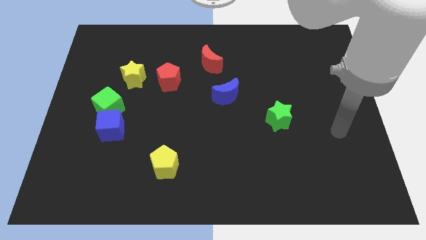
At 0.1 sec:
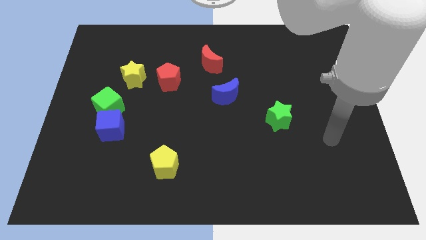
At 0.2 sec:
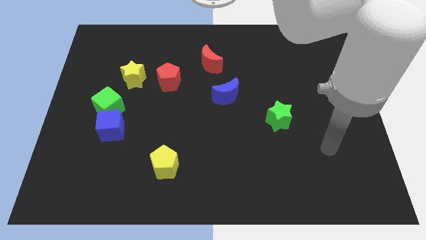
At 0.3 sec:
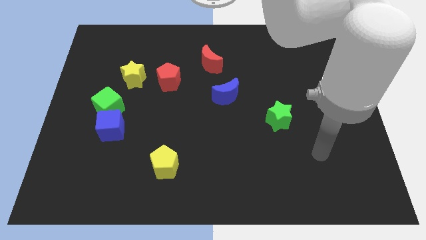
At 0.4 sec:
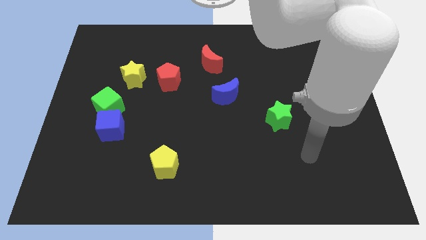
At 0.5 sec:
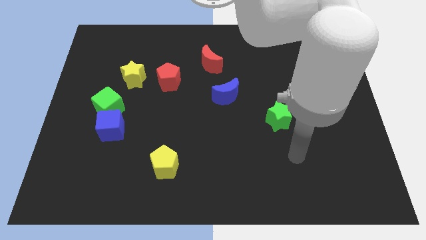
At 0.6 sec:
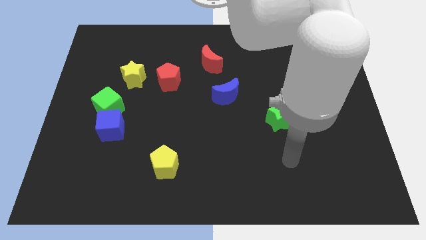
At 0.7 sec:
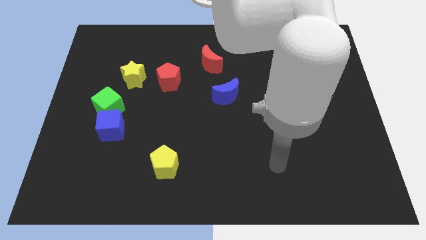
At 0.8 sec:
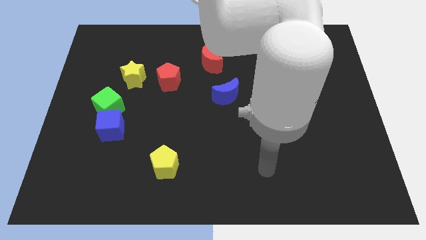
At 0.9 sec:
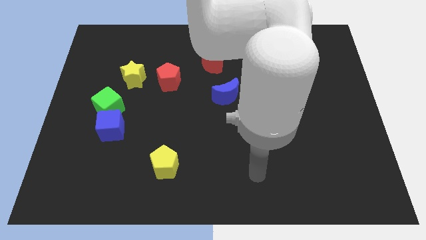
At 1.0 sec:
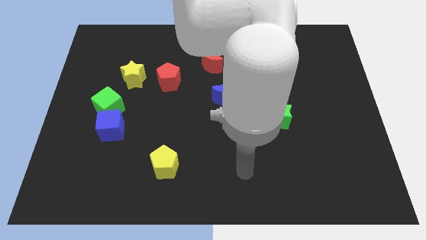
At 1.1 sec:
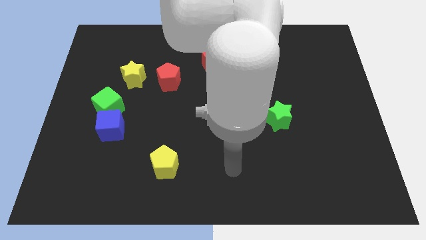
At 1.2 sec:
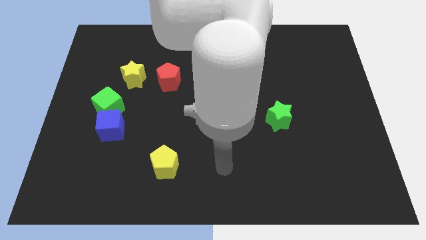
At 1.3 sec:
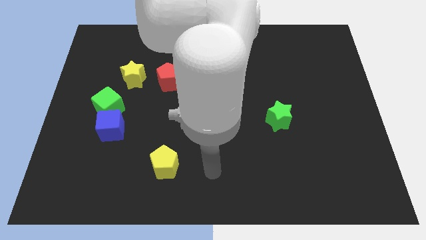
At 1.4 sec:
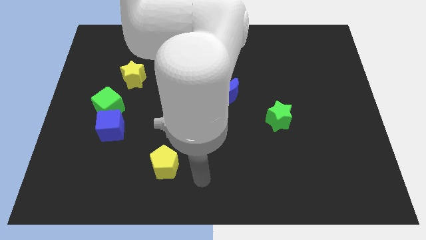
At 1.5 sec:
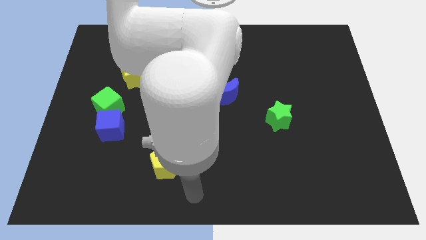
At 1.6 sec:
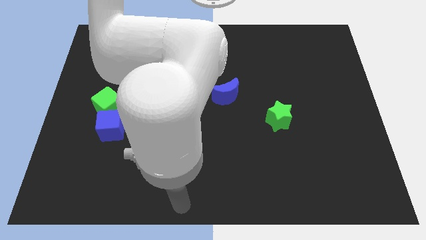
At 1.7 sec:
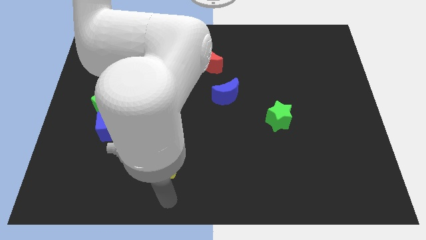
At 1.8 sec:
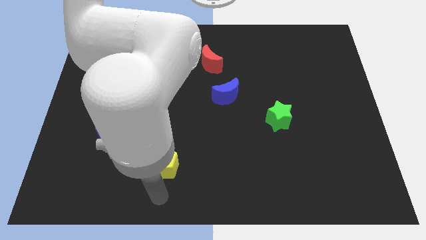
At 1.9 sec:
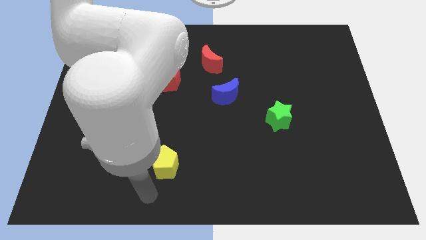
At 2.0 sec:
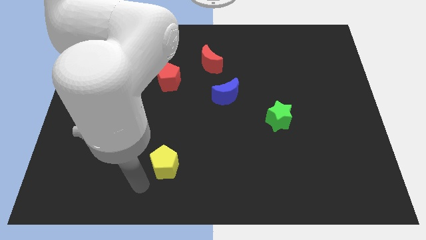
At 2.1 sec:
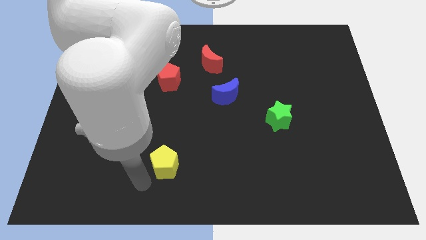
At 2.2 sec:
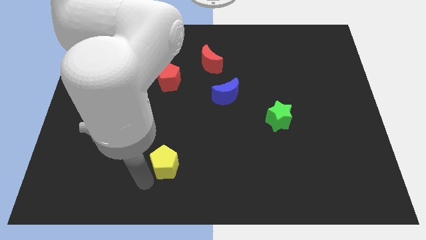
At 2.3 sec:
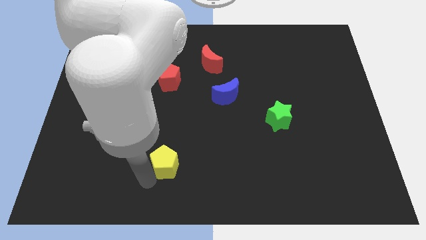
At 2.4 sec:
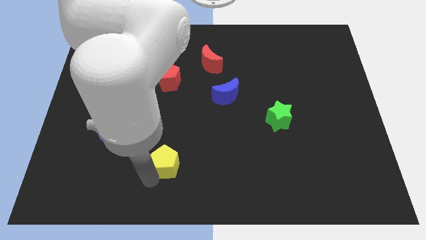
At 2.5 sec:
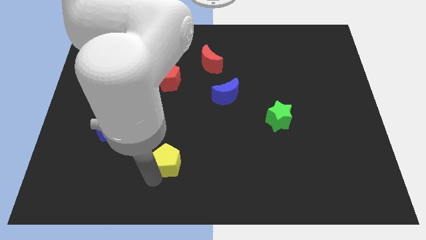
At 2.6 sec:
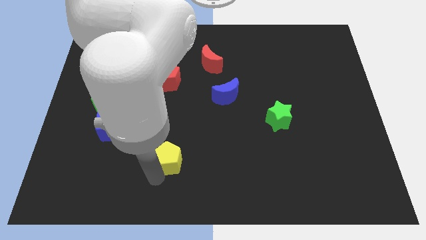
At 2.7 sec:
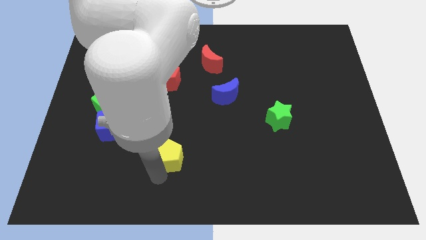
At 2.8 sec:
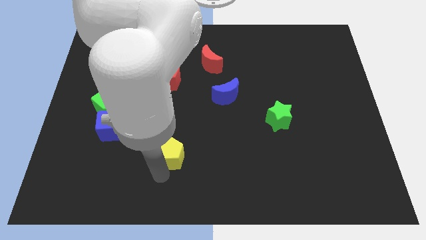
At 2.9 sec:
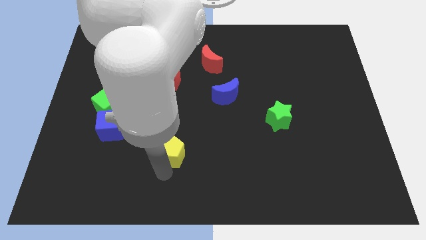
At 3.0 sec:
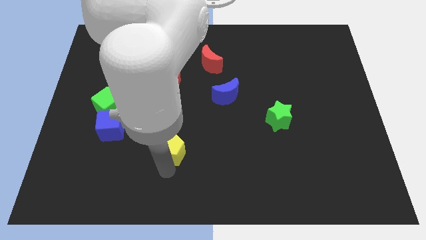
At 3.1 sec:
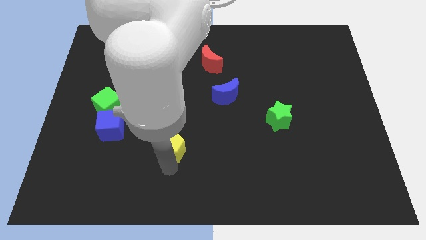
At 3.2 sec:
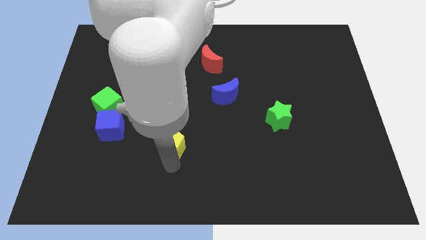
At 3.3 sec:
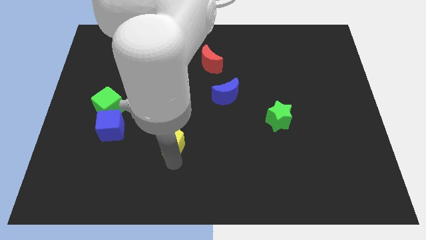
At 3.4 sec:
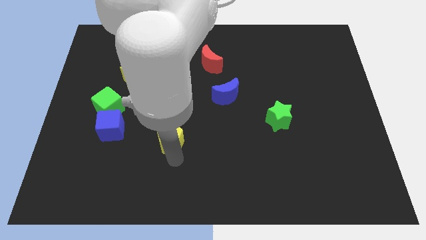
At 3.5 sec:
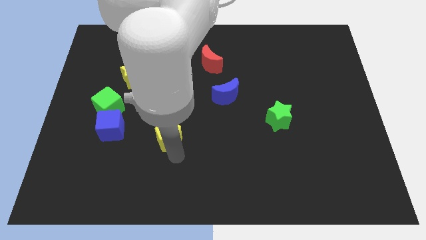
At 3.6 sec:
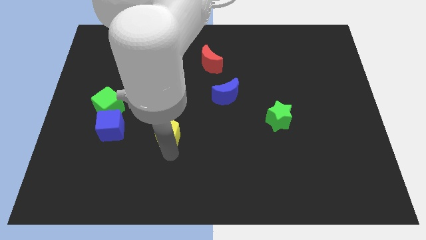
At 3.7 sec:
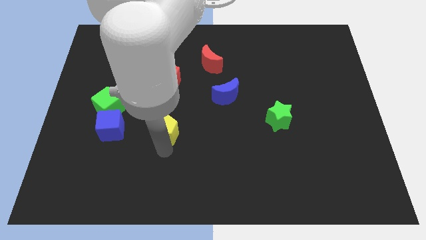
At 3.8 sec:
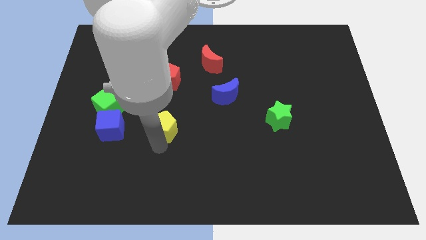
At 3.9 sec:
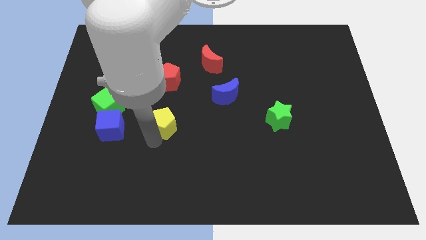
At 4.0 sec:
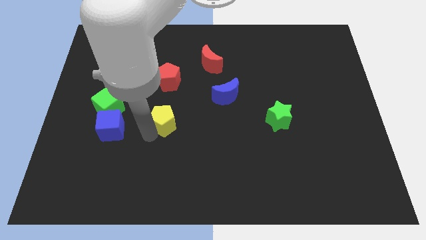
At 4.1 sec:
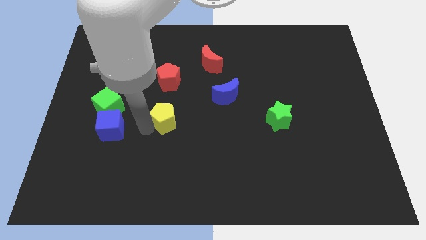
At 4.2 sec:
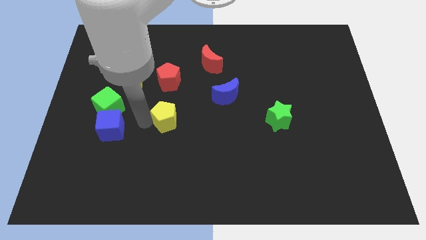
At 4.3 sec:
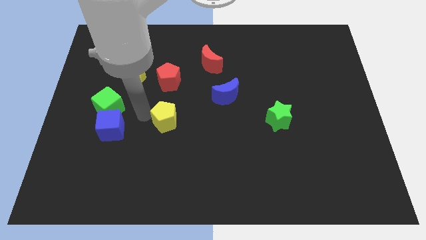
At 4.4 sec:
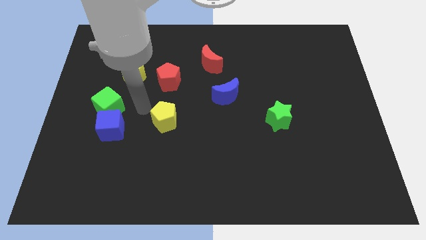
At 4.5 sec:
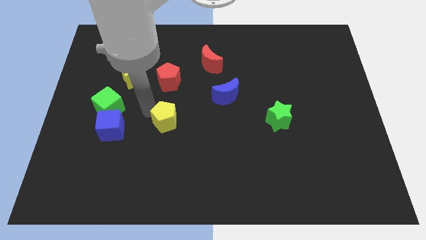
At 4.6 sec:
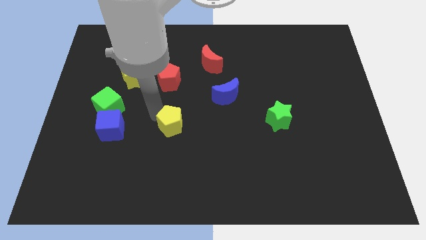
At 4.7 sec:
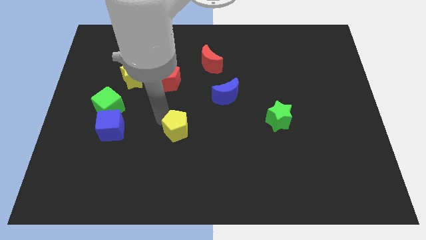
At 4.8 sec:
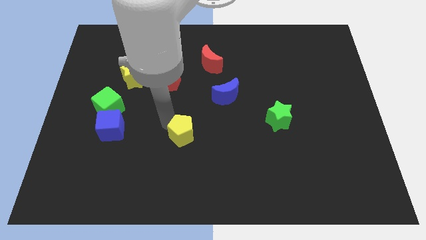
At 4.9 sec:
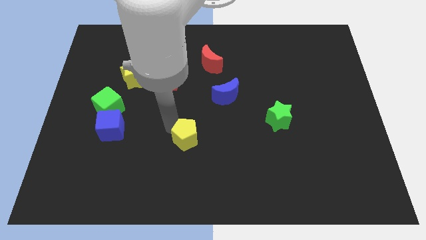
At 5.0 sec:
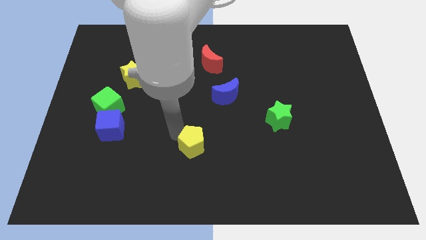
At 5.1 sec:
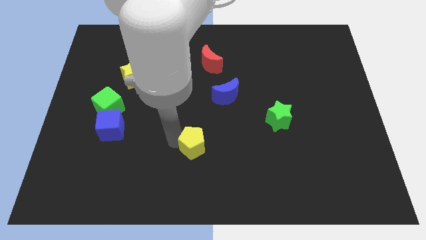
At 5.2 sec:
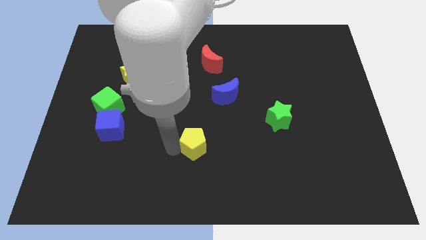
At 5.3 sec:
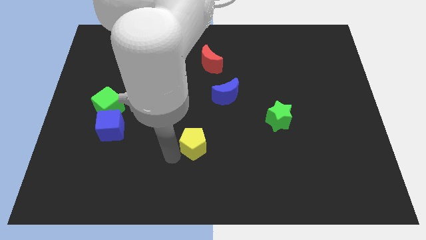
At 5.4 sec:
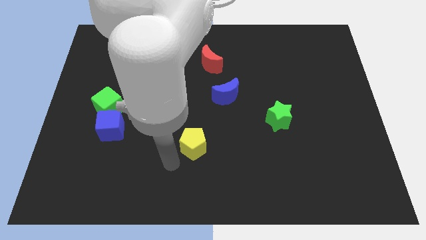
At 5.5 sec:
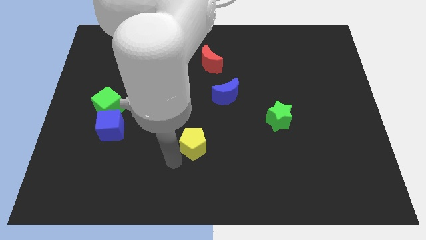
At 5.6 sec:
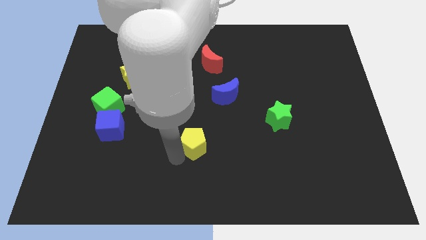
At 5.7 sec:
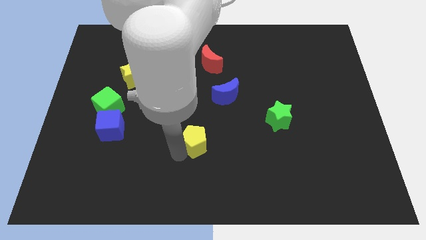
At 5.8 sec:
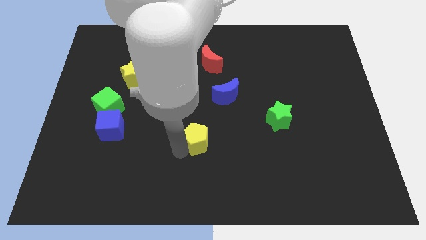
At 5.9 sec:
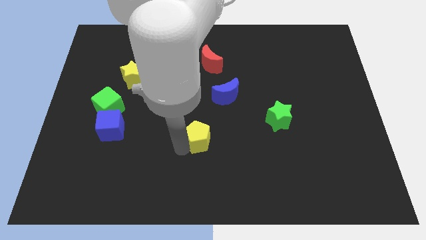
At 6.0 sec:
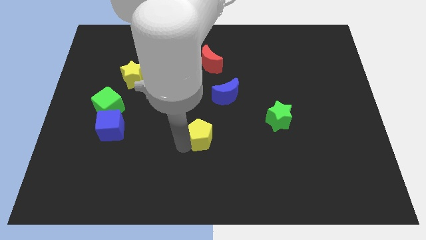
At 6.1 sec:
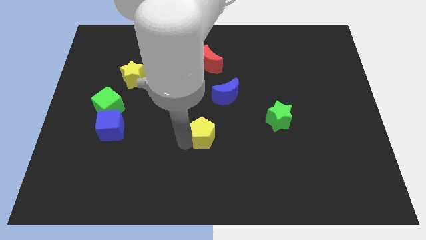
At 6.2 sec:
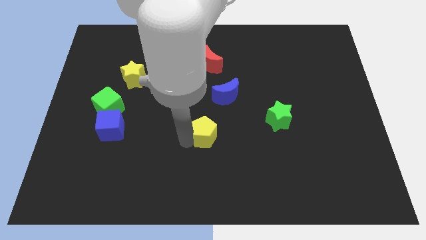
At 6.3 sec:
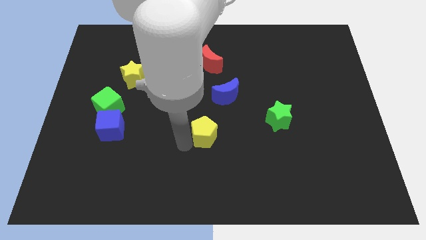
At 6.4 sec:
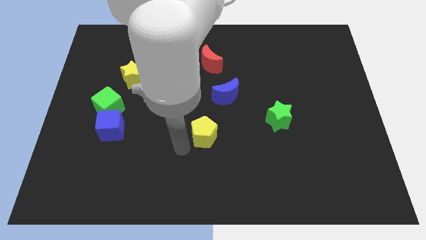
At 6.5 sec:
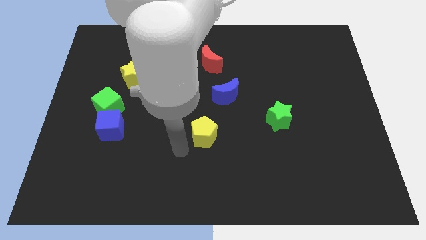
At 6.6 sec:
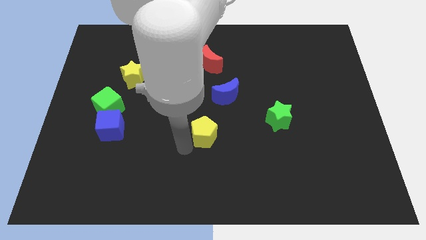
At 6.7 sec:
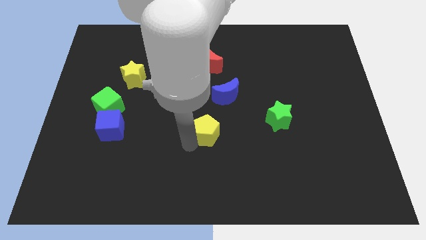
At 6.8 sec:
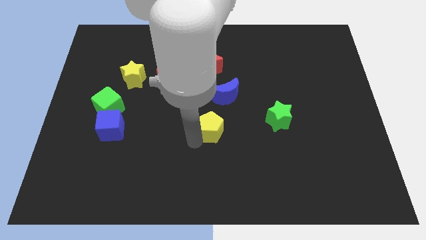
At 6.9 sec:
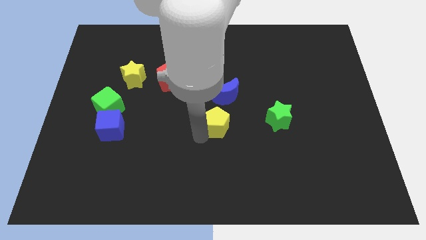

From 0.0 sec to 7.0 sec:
move the yellow pentagon to the left side of the green star

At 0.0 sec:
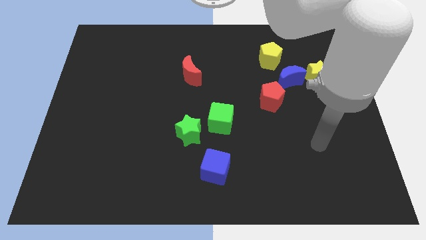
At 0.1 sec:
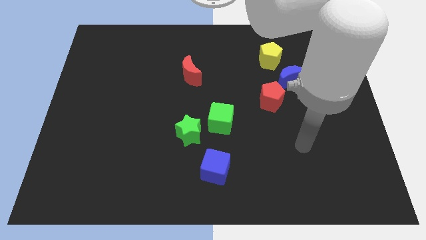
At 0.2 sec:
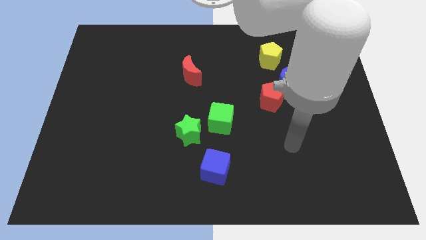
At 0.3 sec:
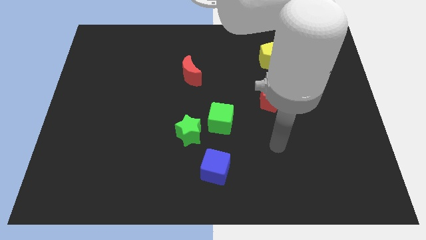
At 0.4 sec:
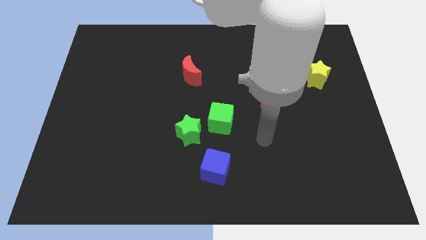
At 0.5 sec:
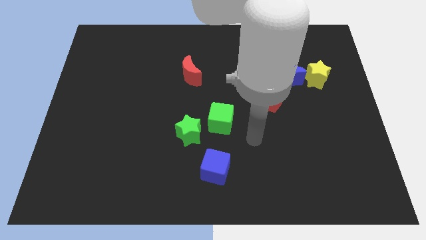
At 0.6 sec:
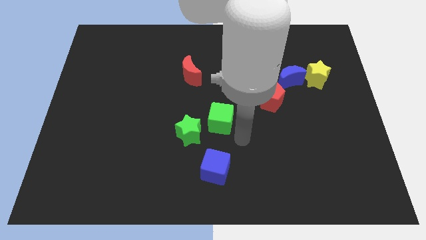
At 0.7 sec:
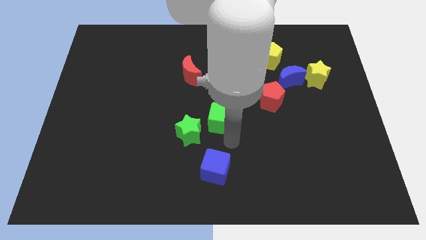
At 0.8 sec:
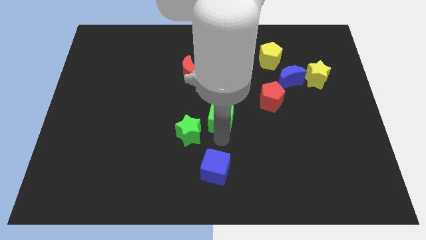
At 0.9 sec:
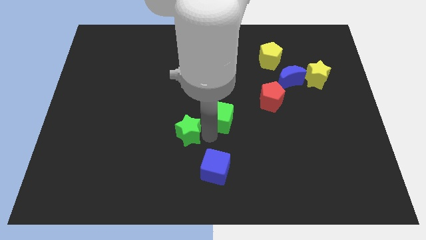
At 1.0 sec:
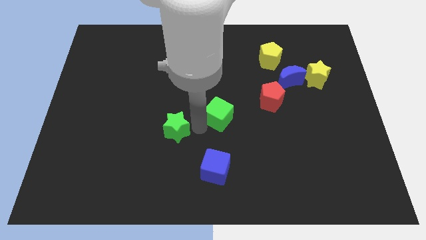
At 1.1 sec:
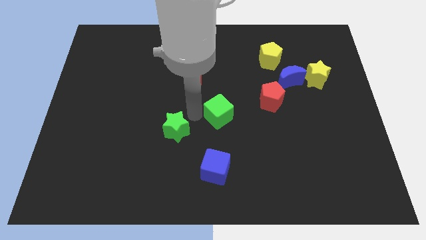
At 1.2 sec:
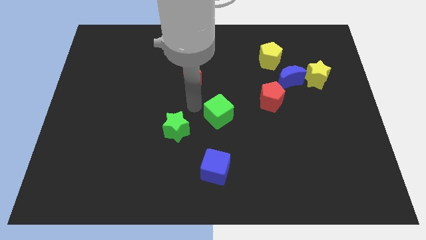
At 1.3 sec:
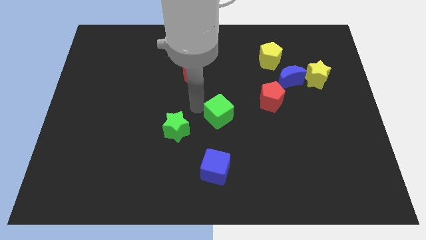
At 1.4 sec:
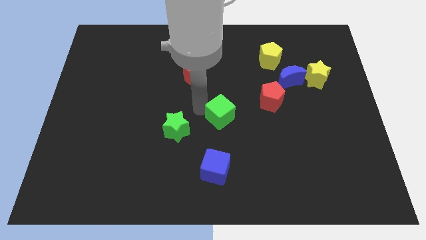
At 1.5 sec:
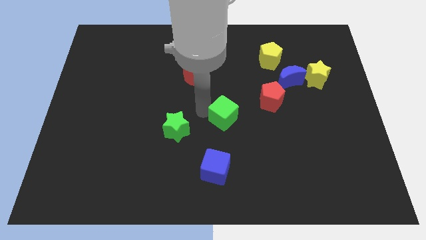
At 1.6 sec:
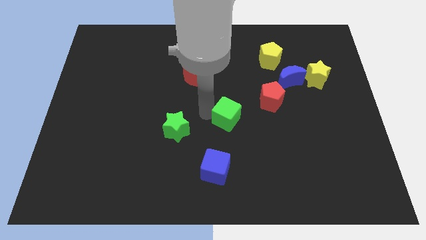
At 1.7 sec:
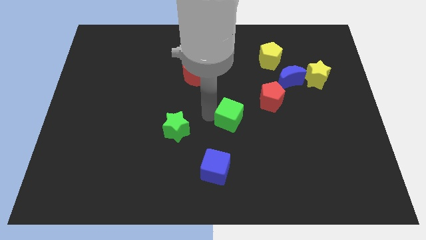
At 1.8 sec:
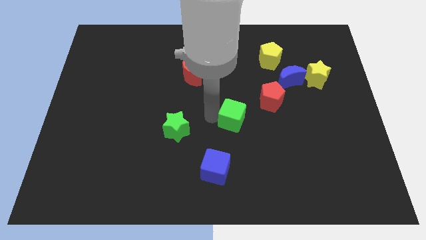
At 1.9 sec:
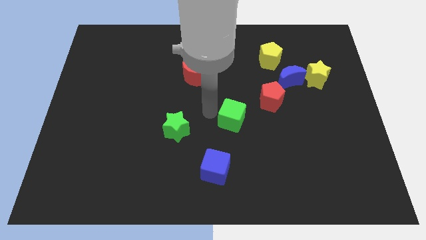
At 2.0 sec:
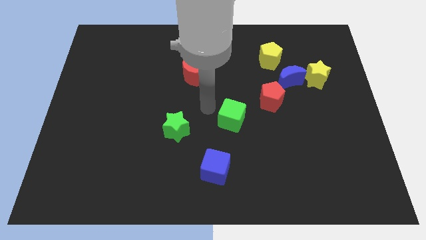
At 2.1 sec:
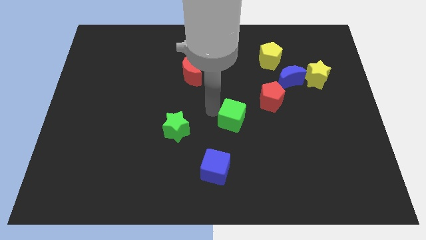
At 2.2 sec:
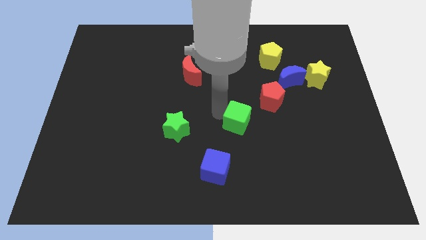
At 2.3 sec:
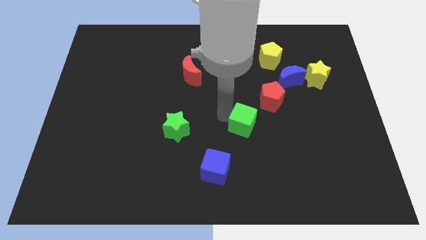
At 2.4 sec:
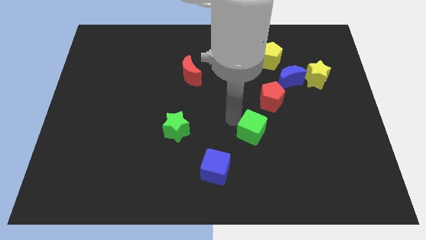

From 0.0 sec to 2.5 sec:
push the green cube to the bottom of the red pentagon
